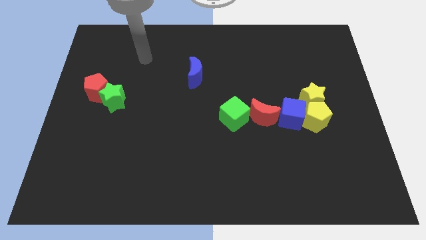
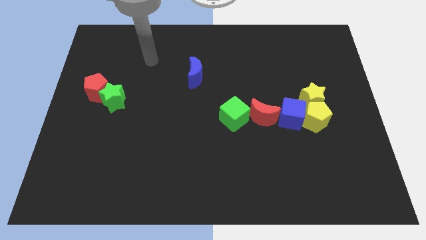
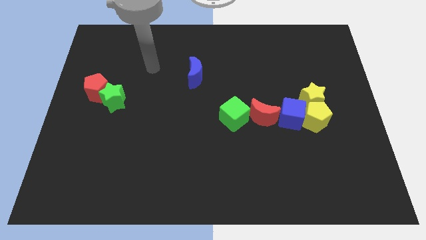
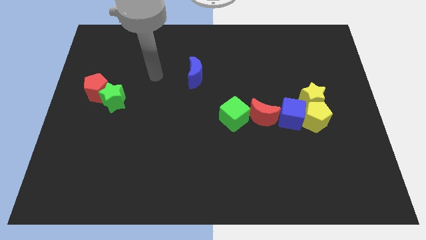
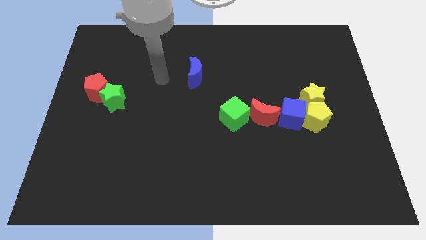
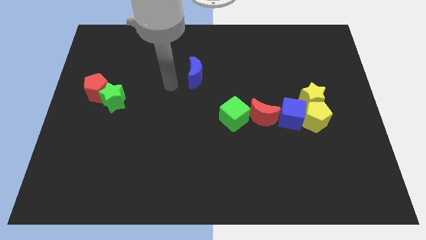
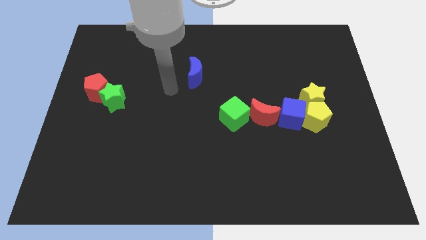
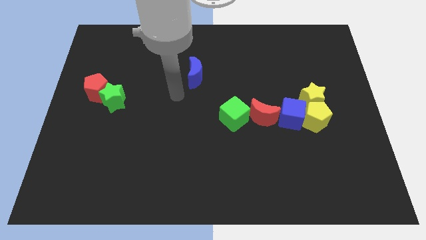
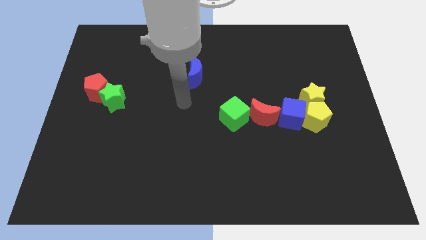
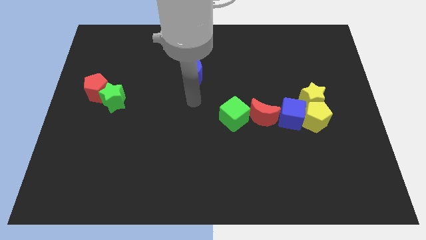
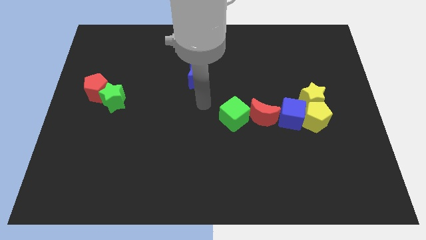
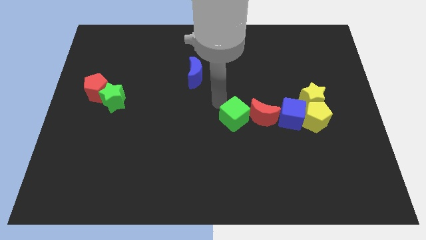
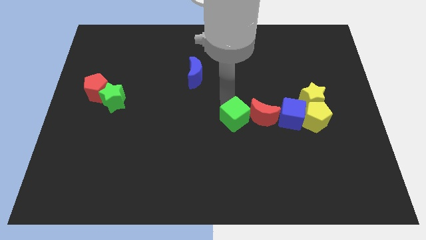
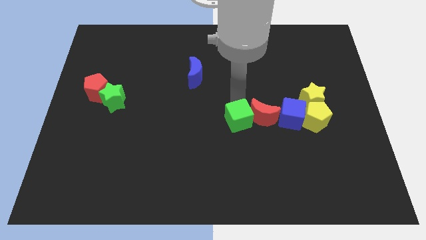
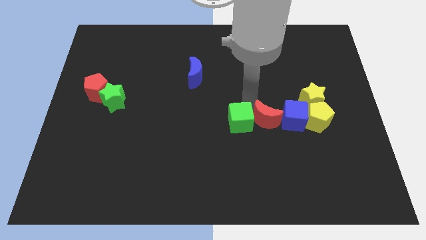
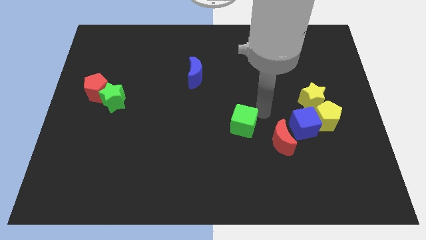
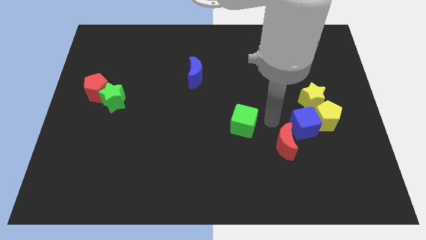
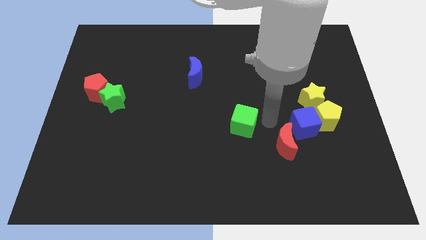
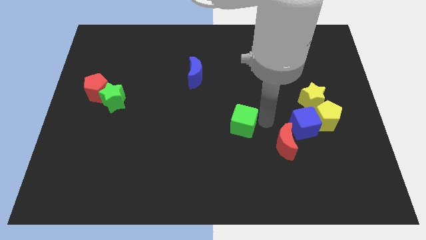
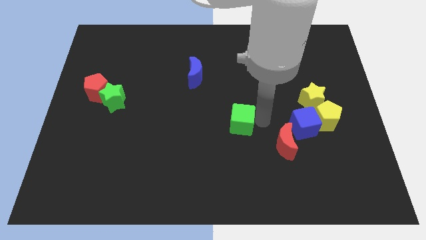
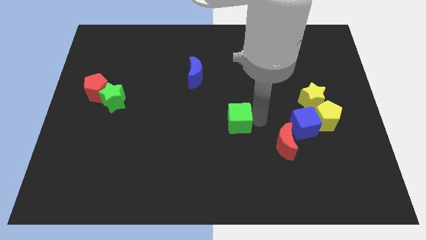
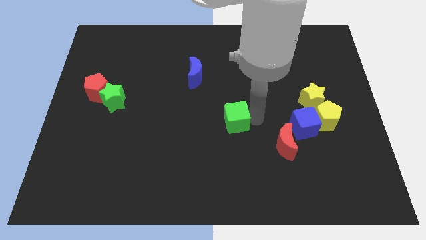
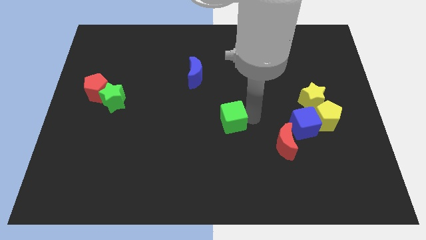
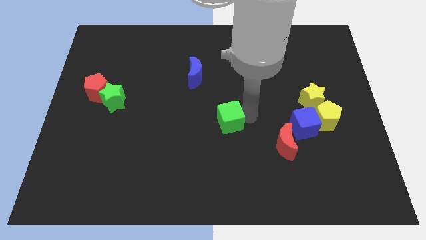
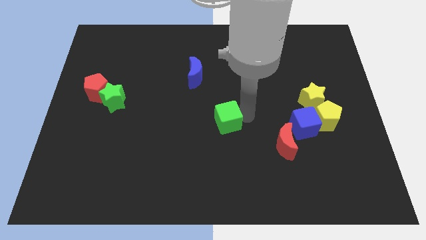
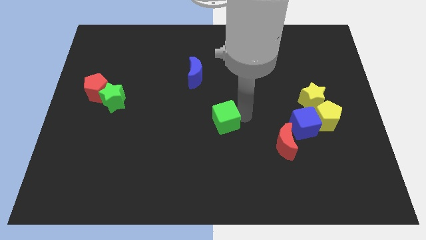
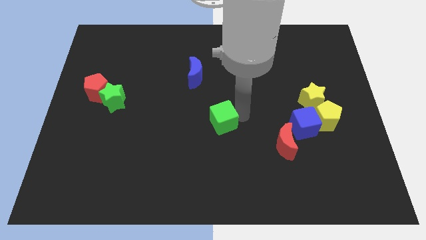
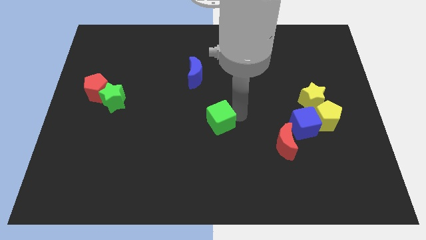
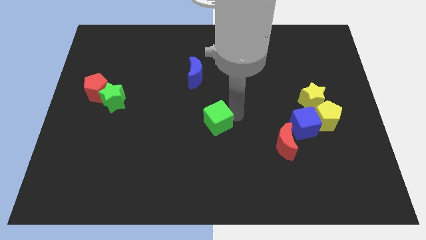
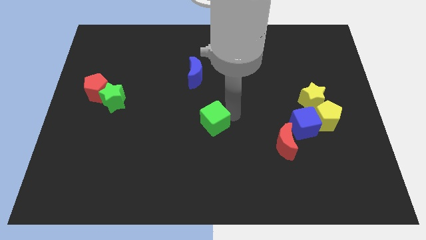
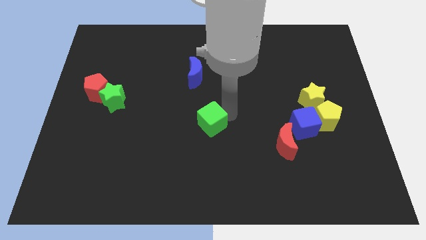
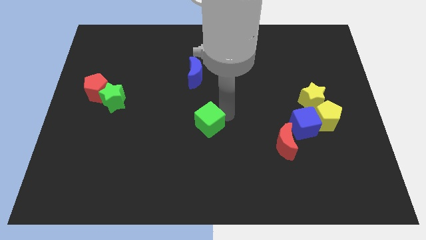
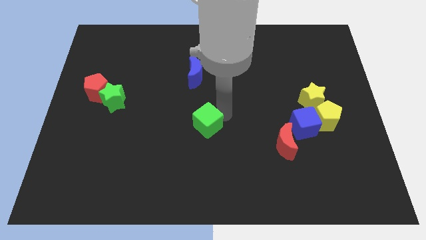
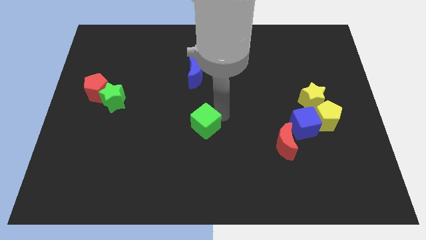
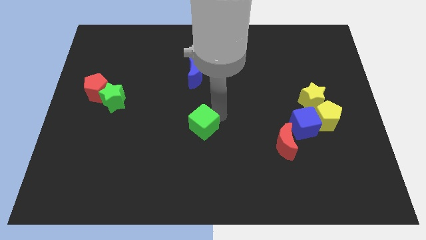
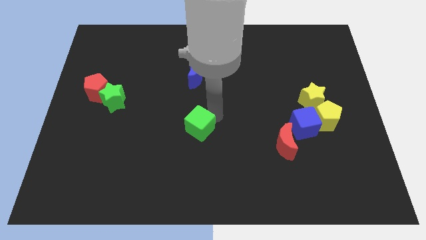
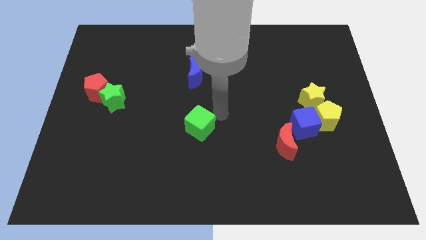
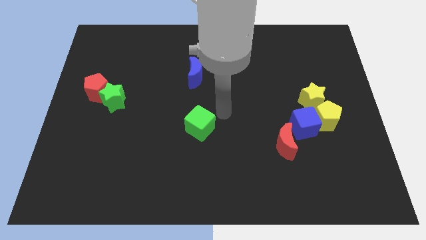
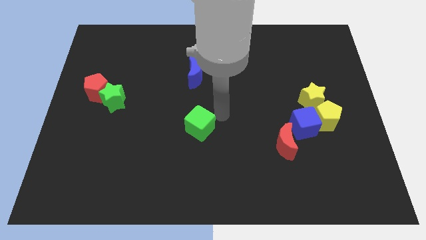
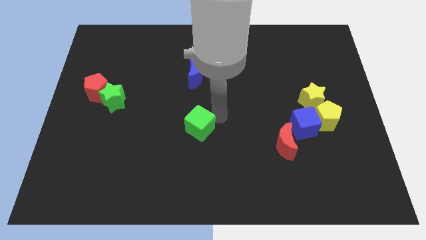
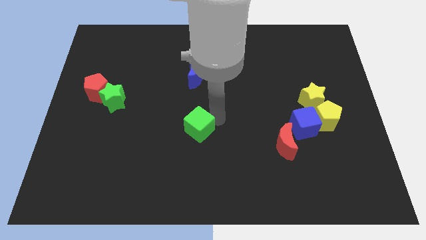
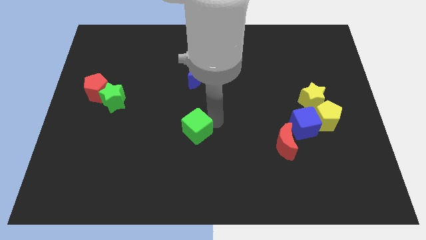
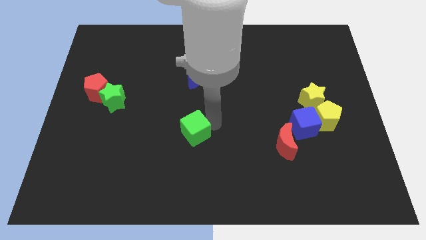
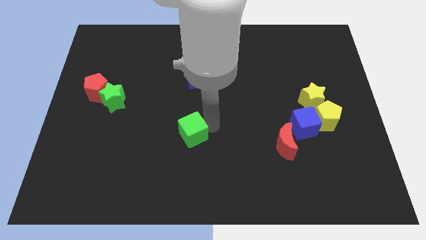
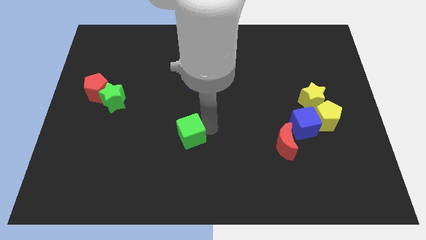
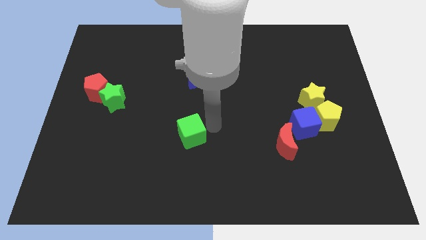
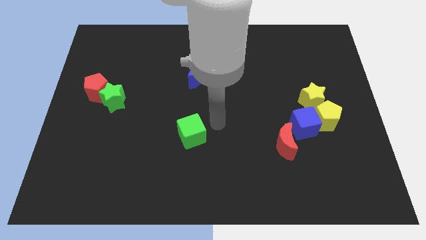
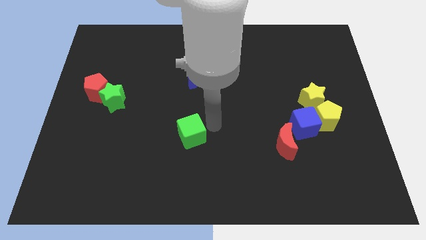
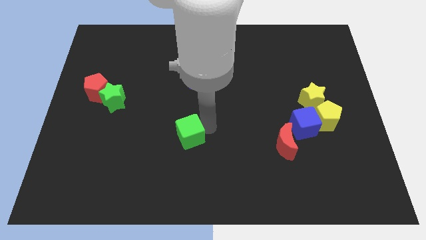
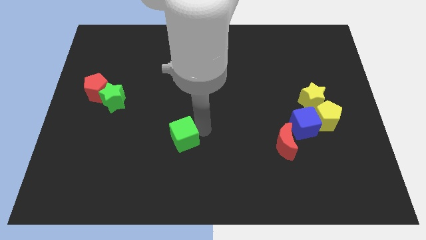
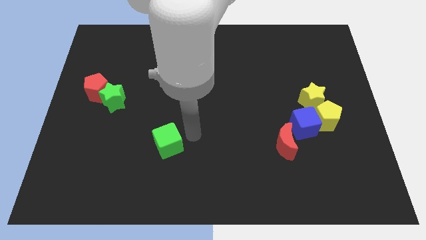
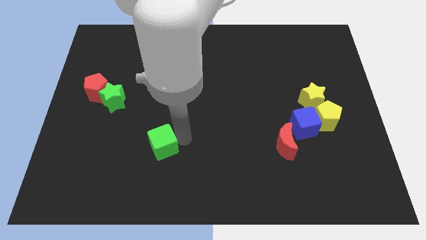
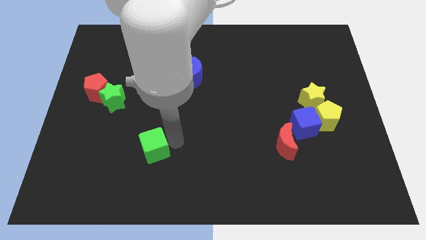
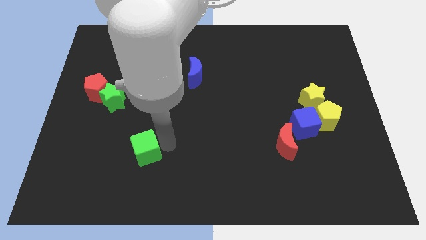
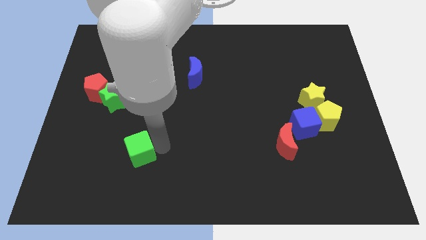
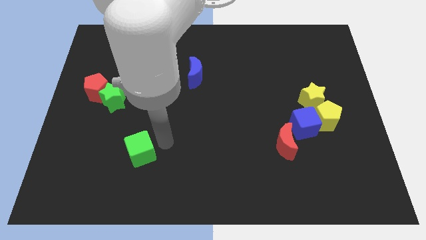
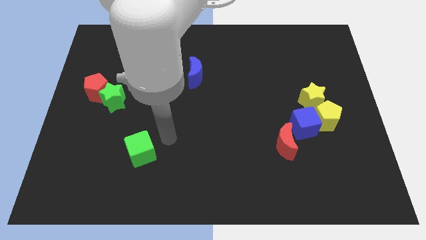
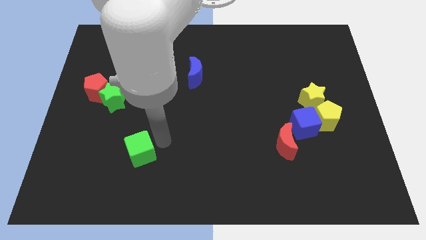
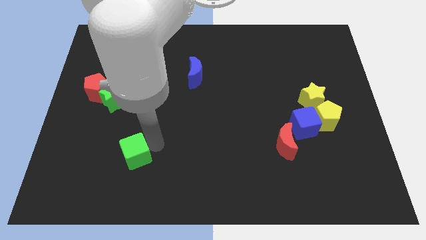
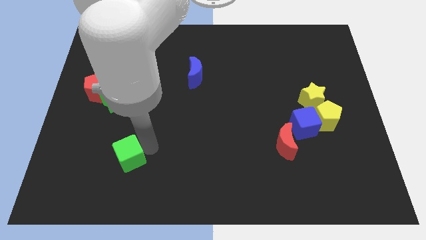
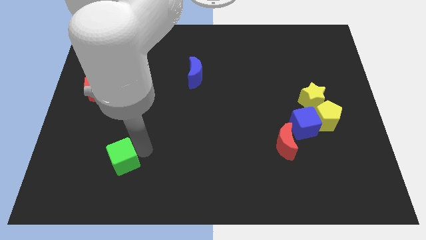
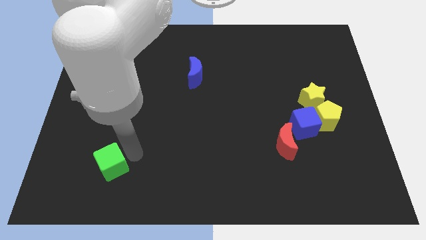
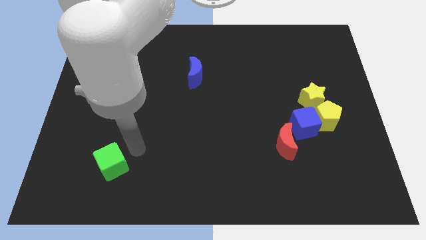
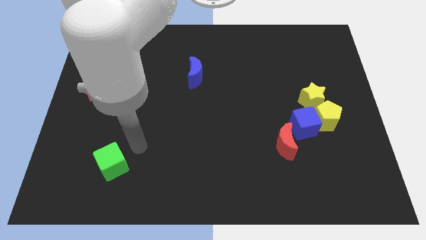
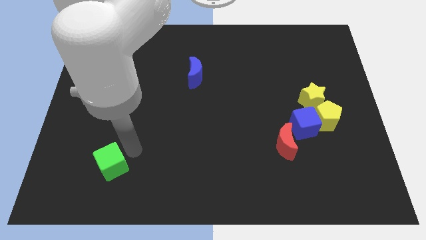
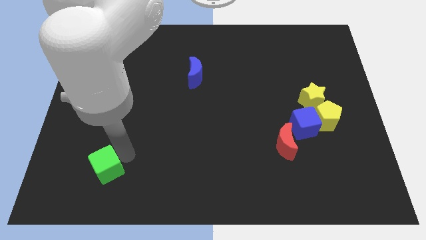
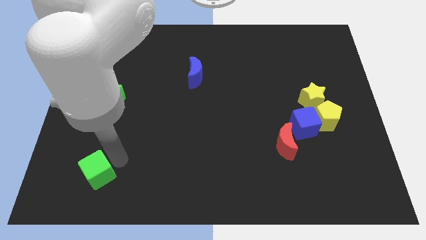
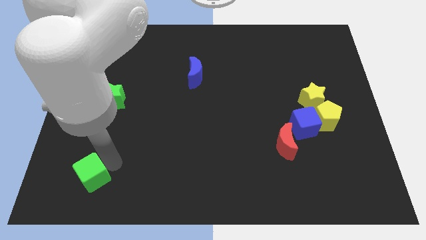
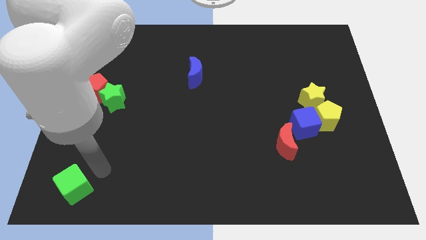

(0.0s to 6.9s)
put the green cube to the bottom left of the board
